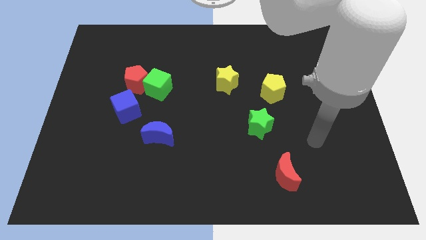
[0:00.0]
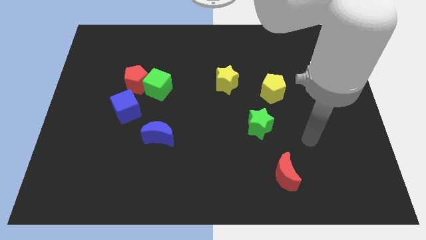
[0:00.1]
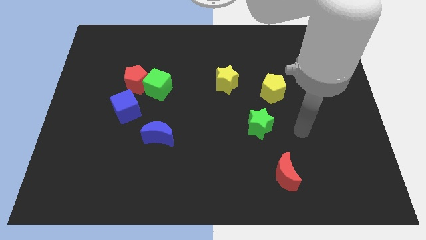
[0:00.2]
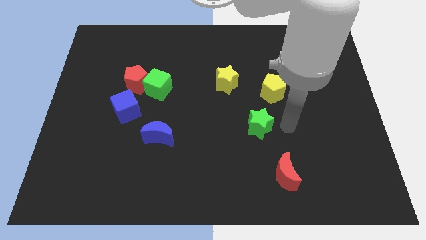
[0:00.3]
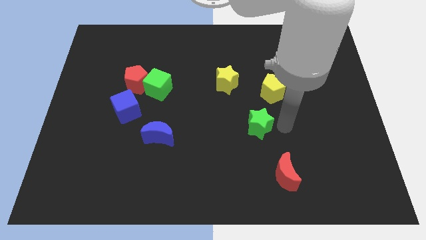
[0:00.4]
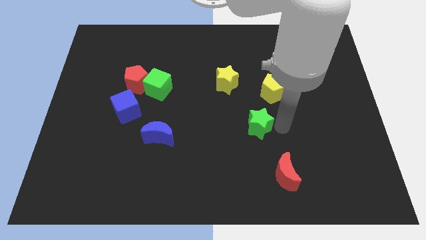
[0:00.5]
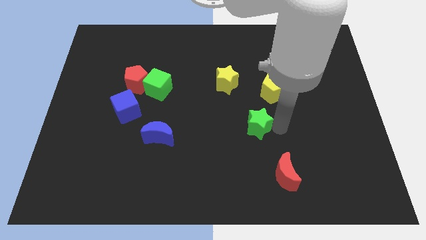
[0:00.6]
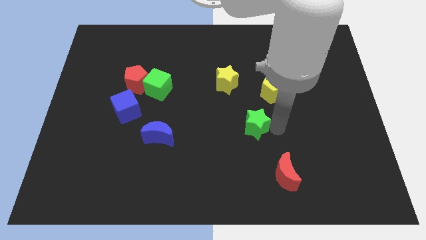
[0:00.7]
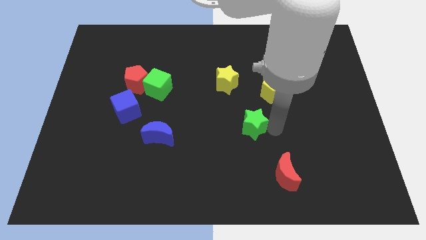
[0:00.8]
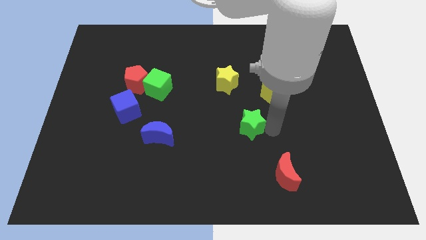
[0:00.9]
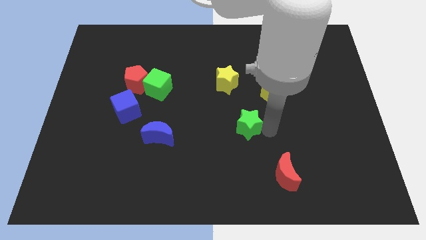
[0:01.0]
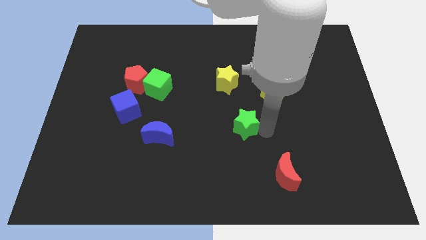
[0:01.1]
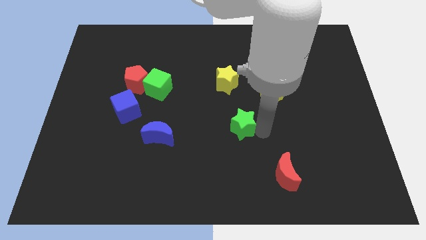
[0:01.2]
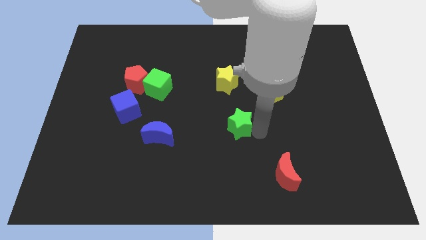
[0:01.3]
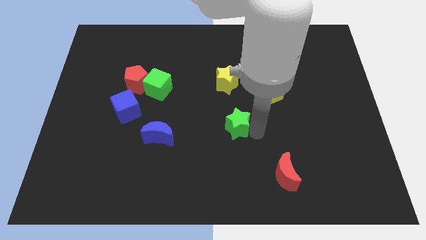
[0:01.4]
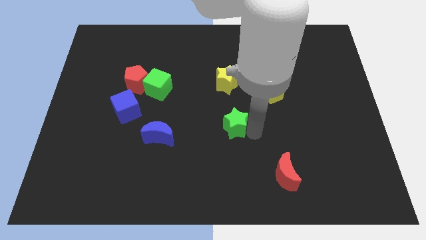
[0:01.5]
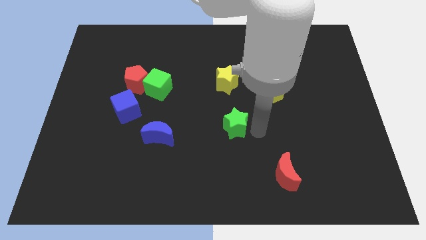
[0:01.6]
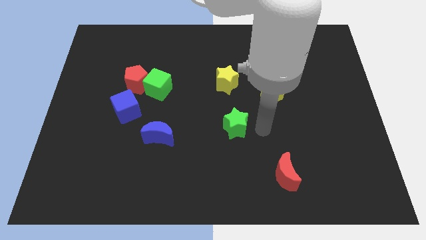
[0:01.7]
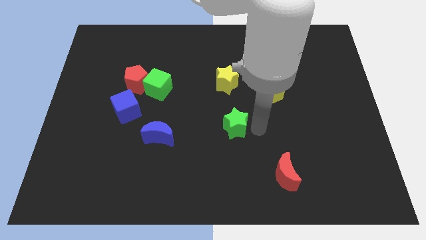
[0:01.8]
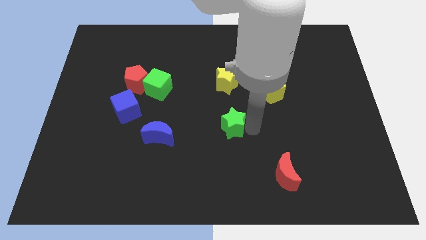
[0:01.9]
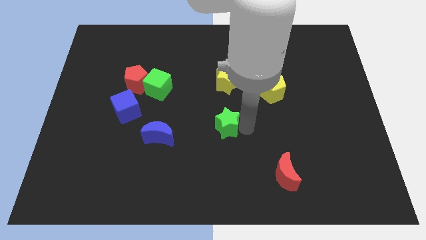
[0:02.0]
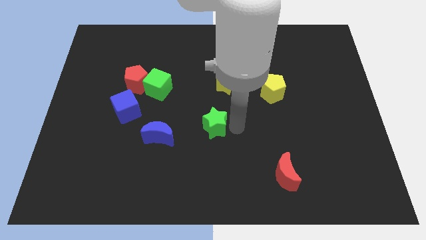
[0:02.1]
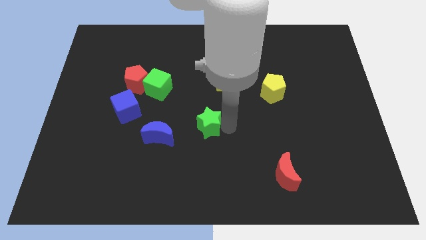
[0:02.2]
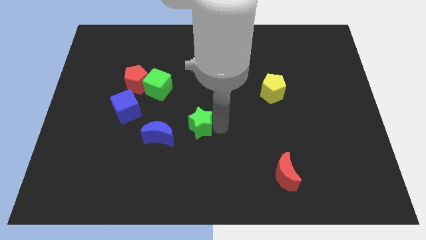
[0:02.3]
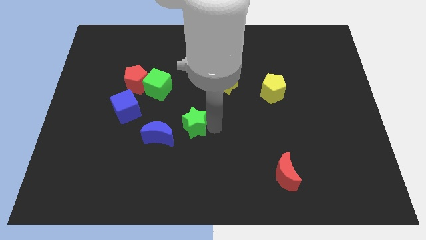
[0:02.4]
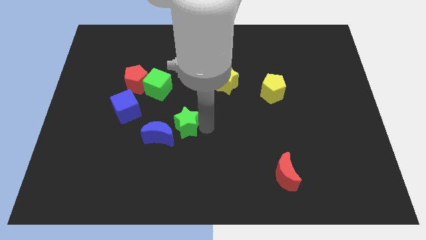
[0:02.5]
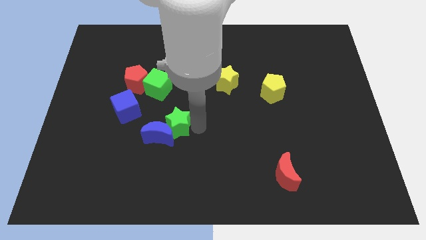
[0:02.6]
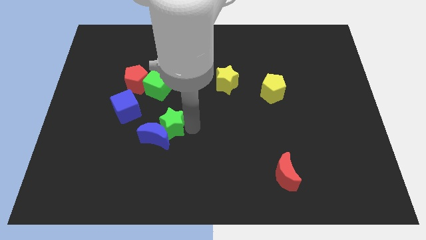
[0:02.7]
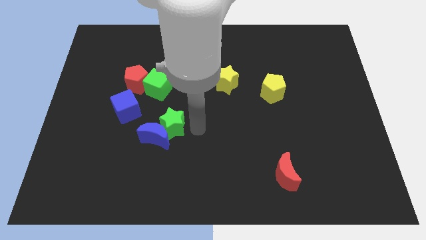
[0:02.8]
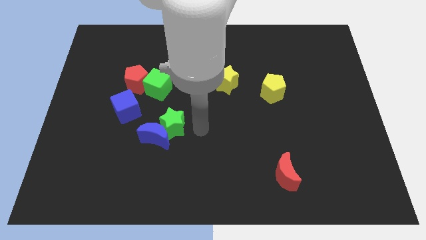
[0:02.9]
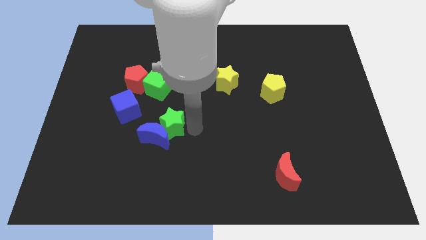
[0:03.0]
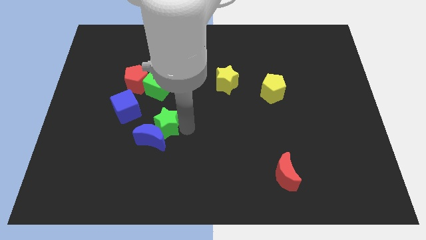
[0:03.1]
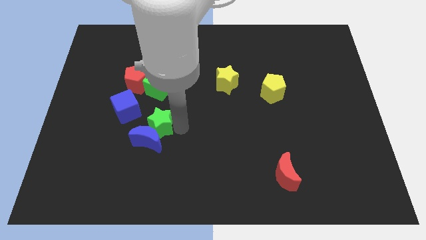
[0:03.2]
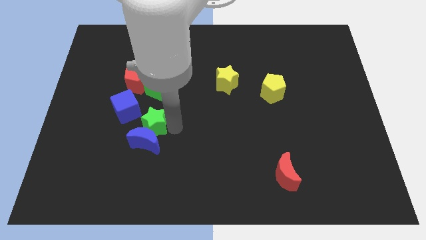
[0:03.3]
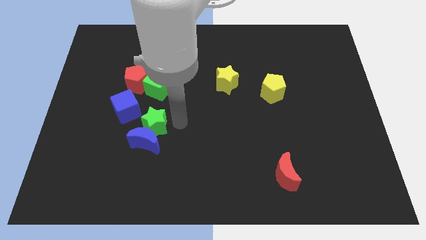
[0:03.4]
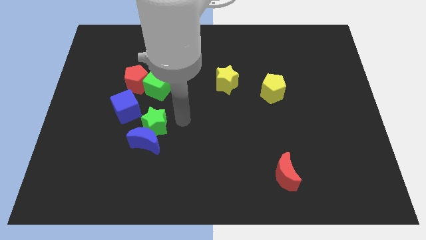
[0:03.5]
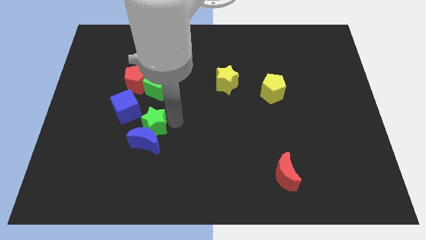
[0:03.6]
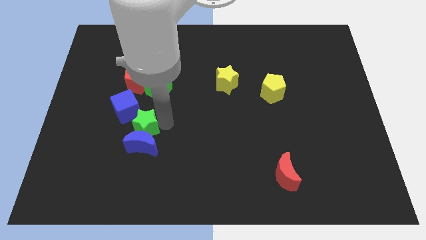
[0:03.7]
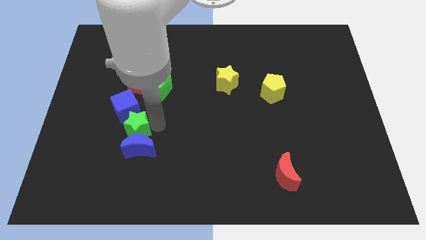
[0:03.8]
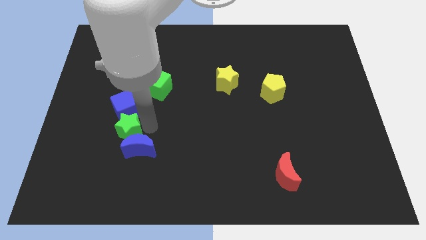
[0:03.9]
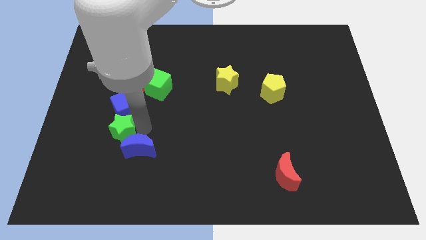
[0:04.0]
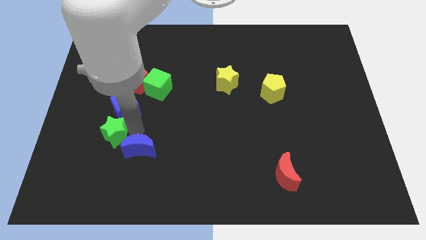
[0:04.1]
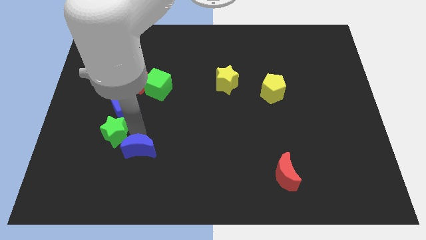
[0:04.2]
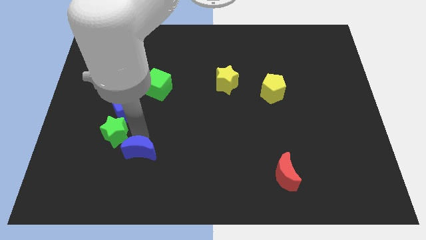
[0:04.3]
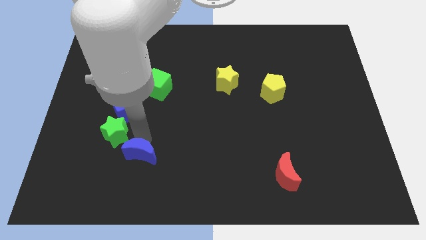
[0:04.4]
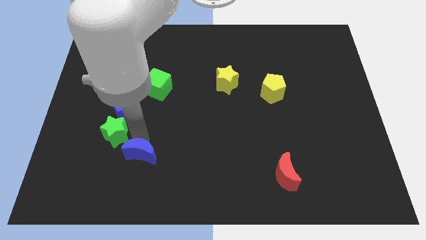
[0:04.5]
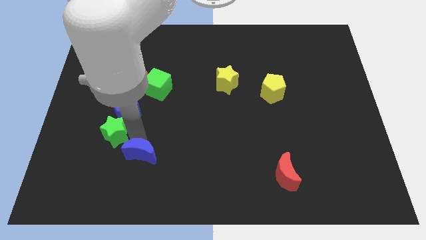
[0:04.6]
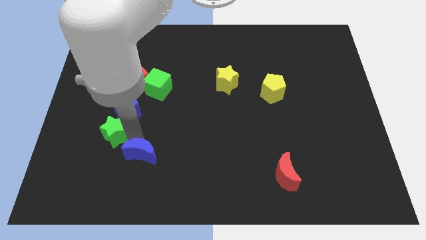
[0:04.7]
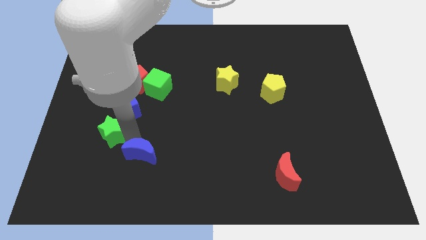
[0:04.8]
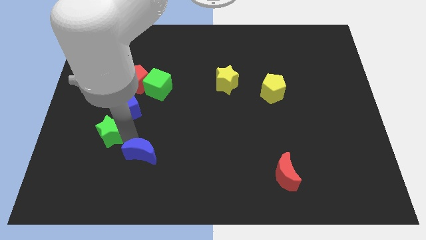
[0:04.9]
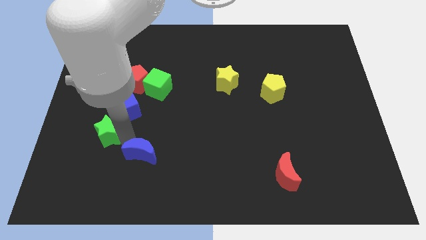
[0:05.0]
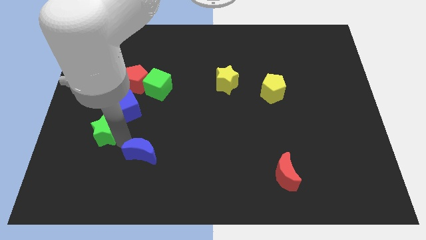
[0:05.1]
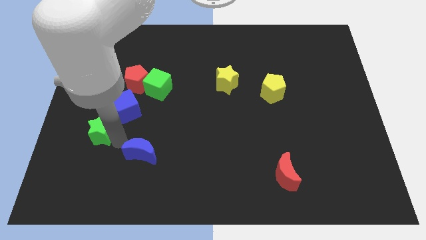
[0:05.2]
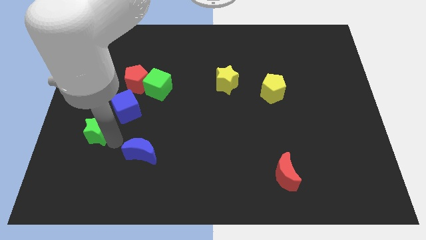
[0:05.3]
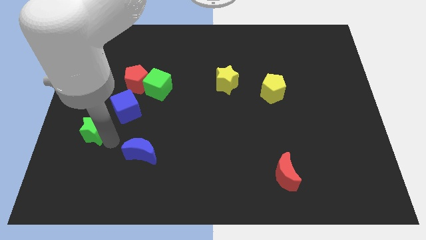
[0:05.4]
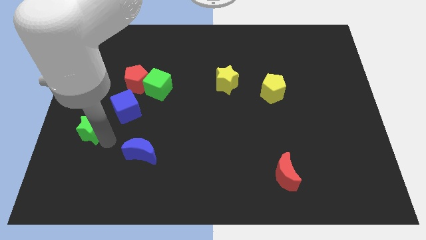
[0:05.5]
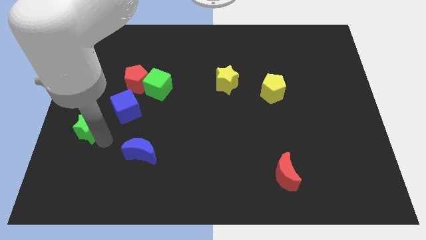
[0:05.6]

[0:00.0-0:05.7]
put the green star to the left side of the board
